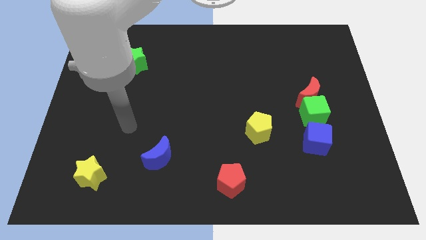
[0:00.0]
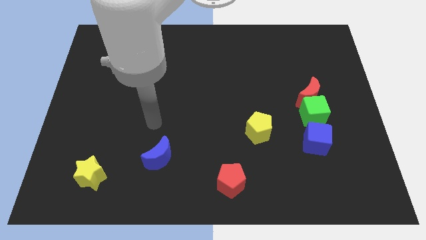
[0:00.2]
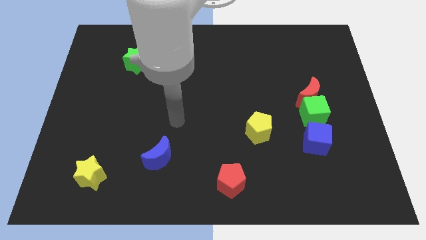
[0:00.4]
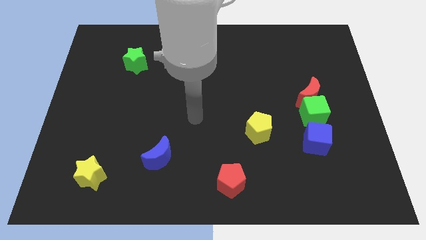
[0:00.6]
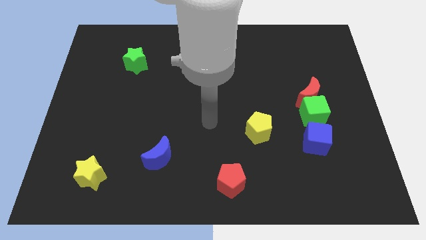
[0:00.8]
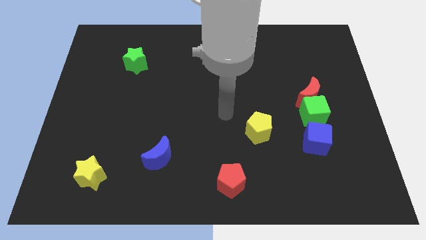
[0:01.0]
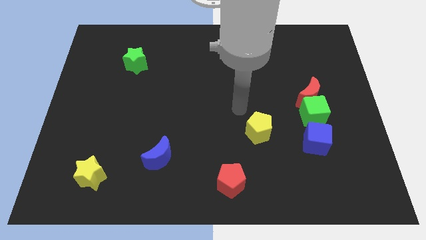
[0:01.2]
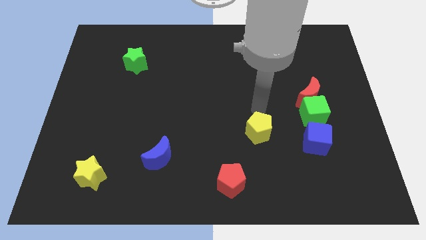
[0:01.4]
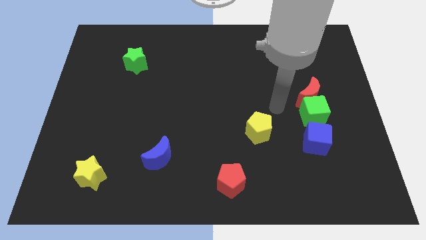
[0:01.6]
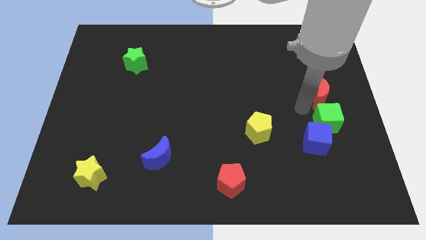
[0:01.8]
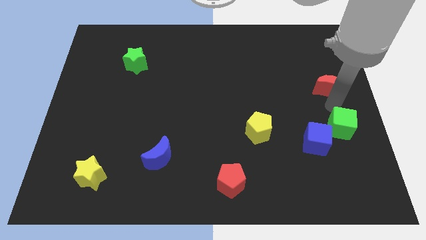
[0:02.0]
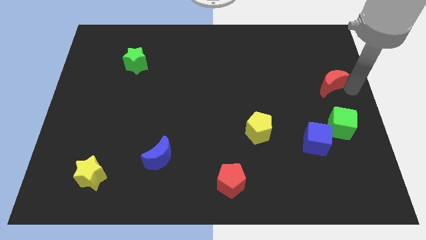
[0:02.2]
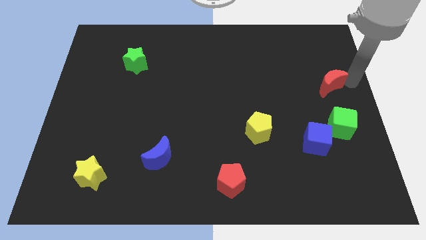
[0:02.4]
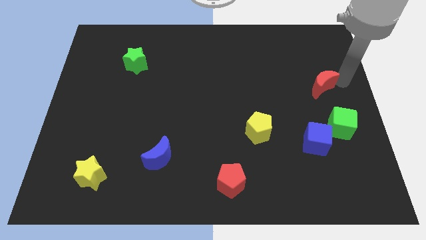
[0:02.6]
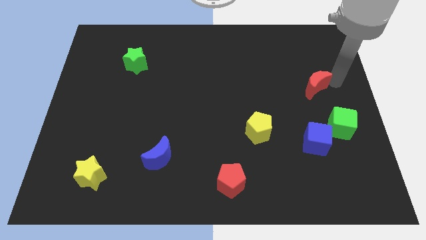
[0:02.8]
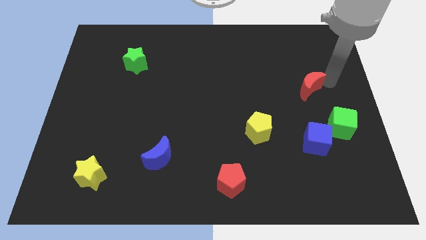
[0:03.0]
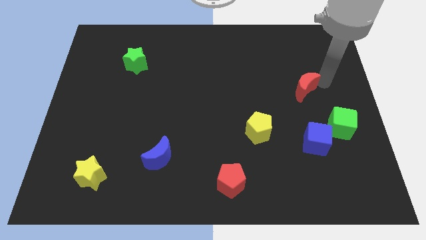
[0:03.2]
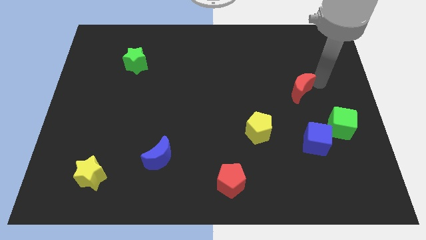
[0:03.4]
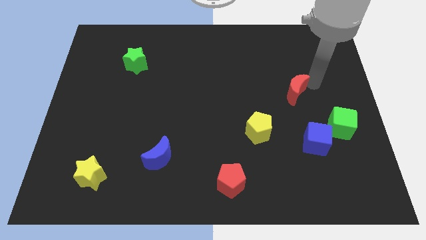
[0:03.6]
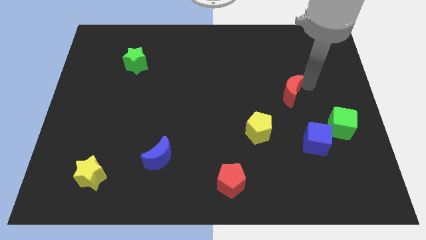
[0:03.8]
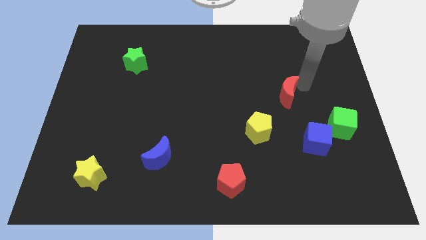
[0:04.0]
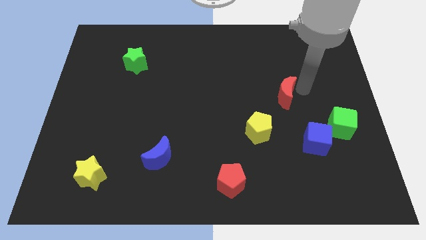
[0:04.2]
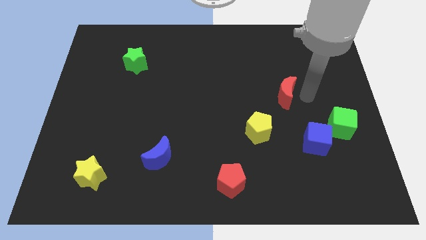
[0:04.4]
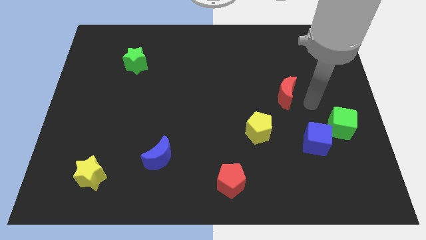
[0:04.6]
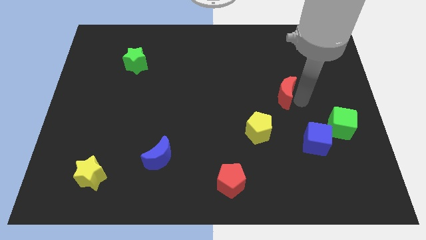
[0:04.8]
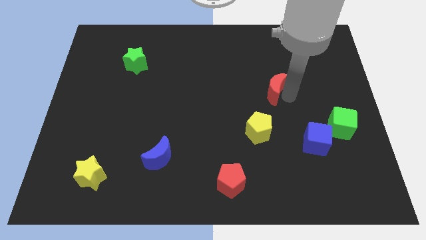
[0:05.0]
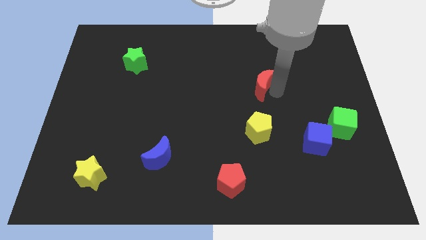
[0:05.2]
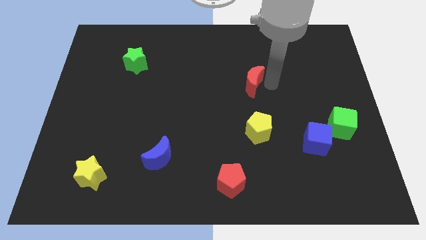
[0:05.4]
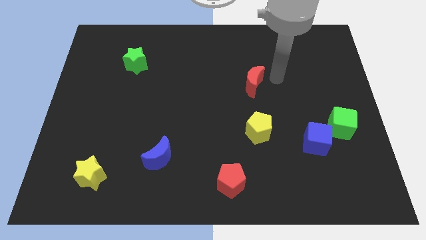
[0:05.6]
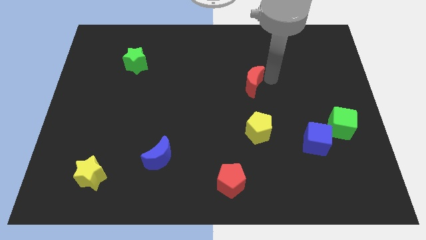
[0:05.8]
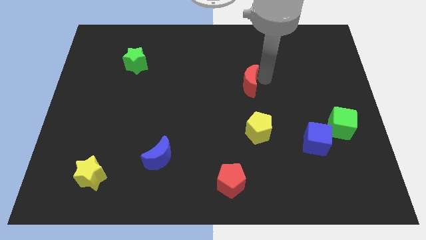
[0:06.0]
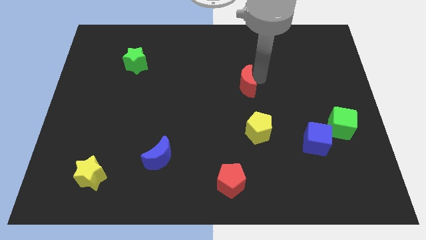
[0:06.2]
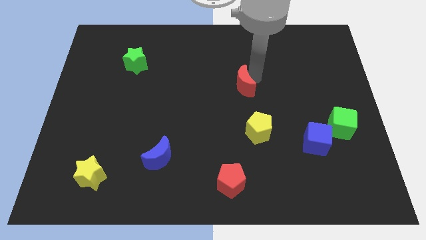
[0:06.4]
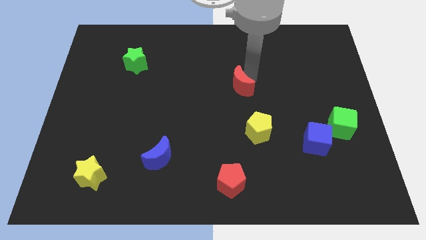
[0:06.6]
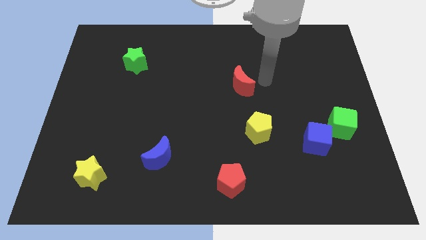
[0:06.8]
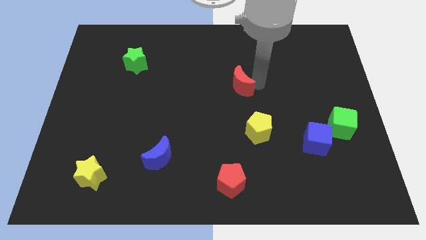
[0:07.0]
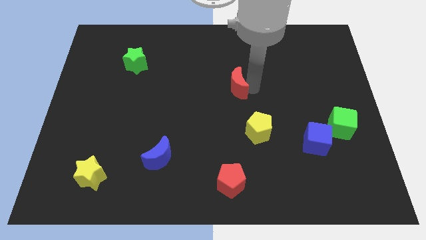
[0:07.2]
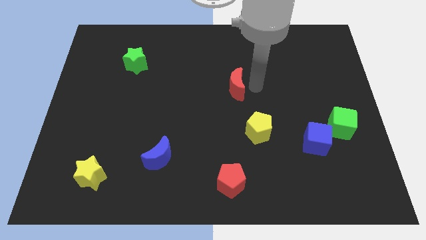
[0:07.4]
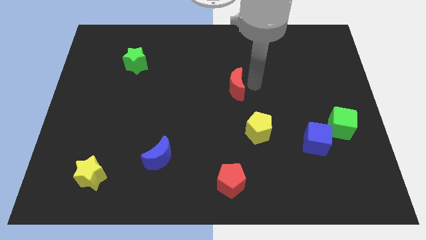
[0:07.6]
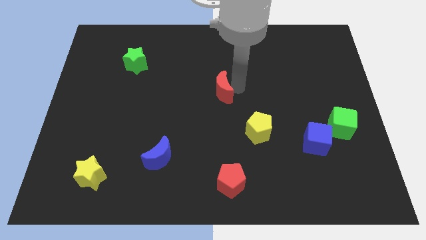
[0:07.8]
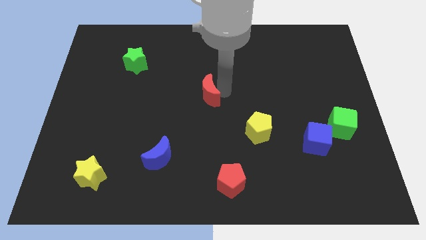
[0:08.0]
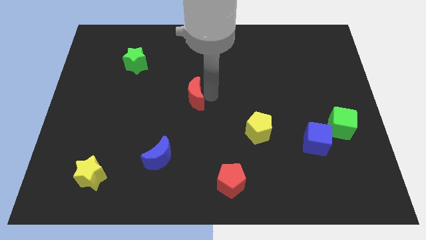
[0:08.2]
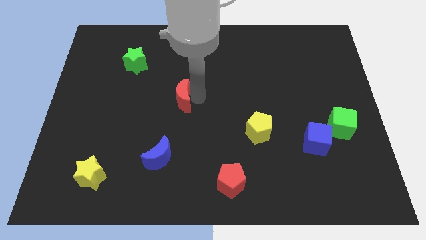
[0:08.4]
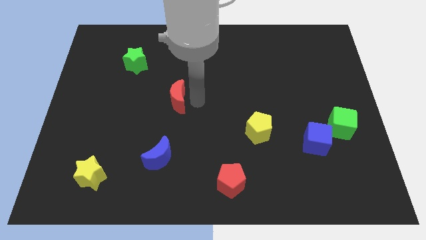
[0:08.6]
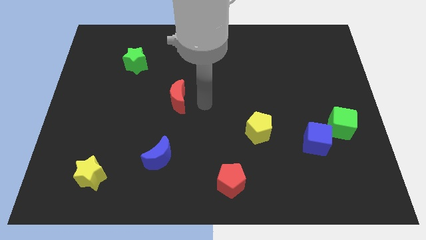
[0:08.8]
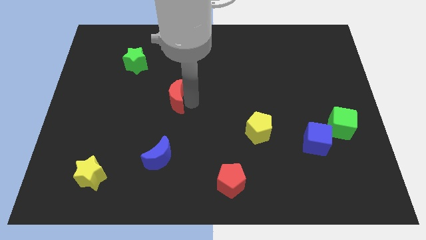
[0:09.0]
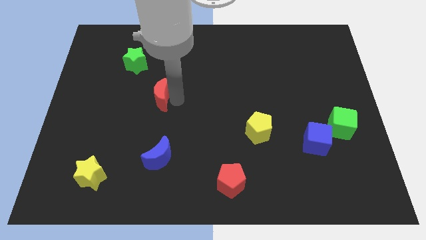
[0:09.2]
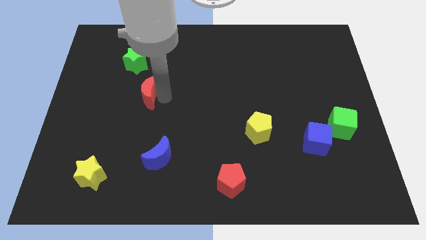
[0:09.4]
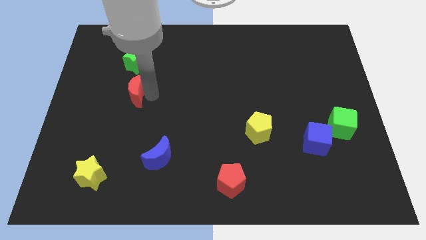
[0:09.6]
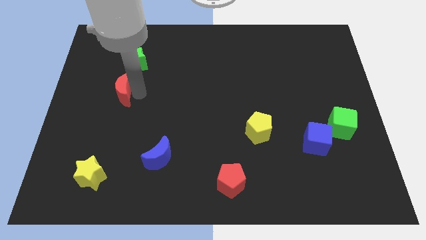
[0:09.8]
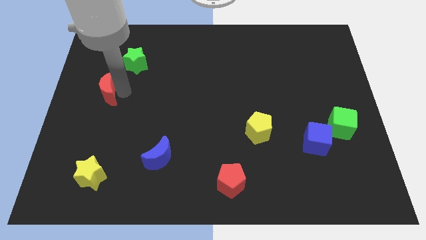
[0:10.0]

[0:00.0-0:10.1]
put the red moon to the left side of the board

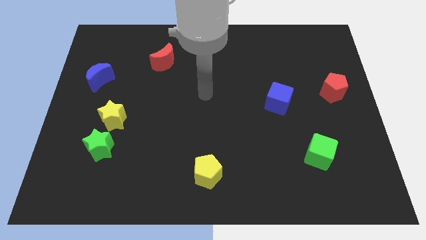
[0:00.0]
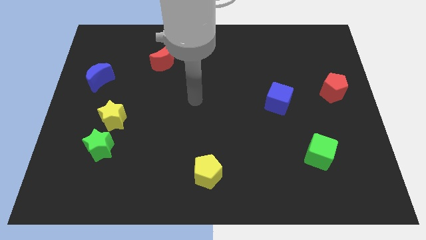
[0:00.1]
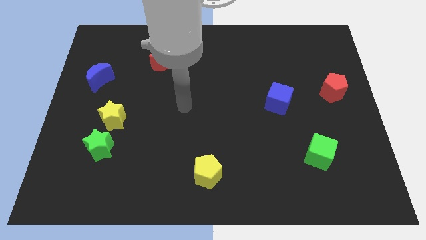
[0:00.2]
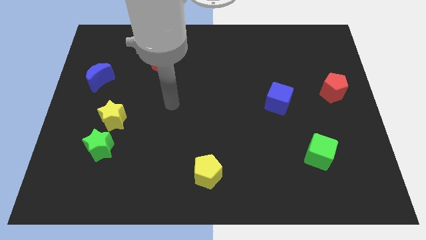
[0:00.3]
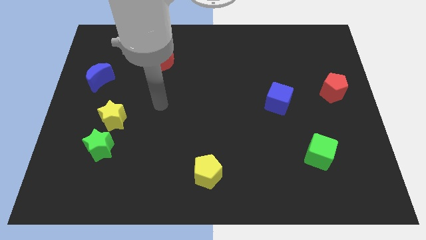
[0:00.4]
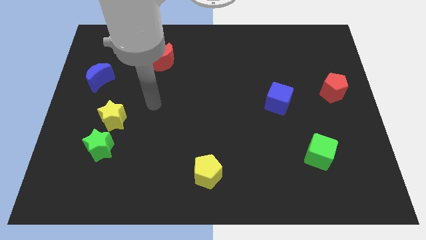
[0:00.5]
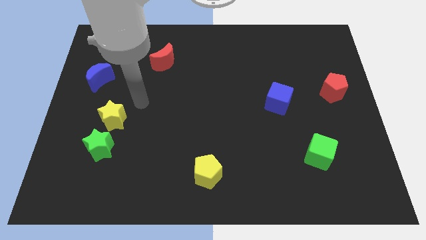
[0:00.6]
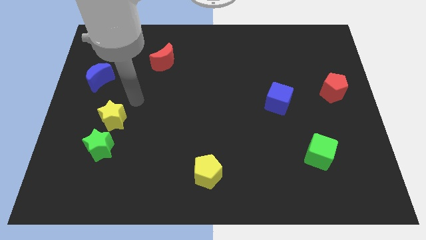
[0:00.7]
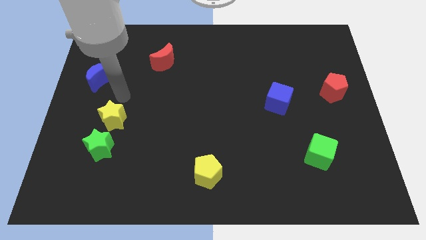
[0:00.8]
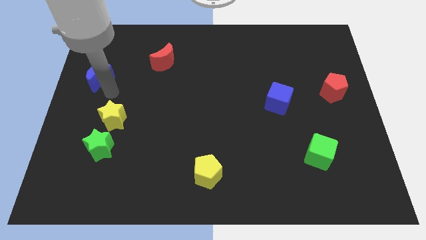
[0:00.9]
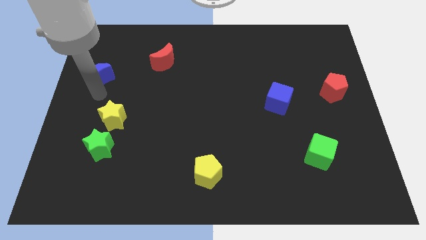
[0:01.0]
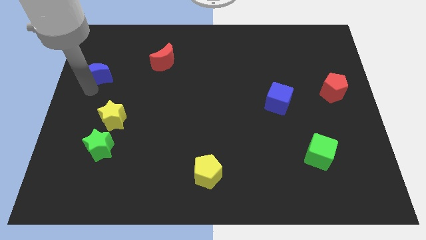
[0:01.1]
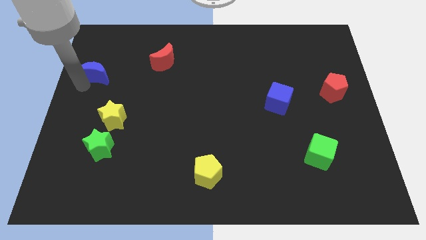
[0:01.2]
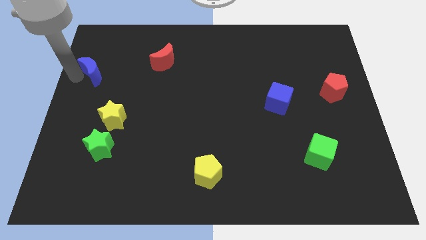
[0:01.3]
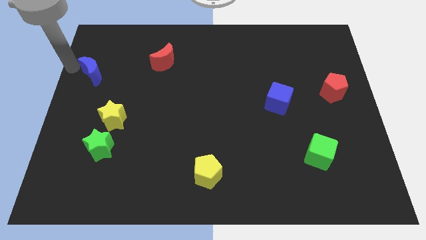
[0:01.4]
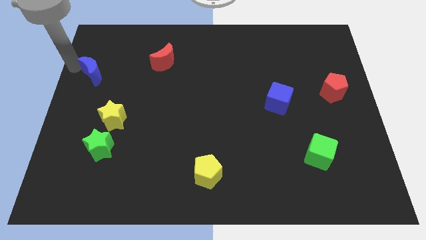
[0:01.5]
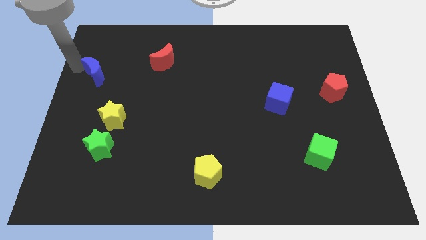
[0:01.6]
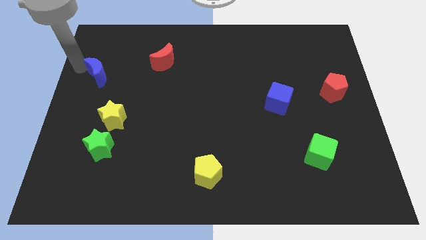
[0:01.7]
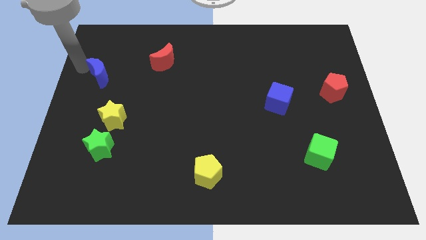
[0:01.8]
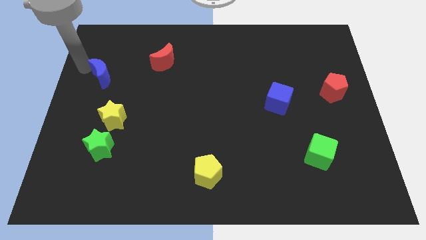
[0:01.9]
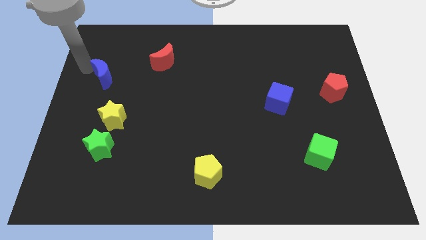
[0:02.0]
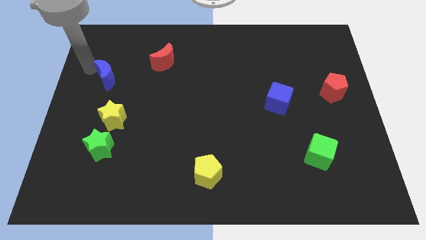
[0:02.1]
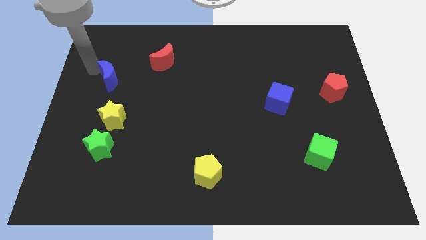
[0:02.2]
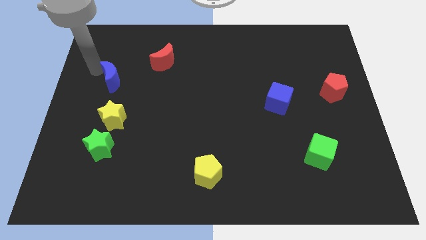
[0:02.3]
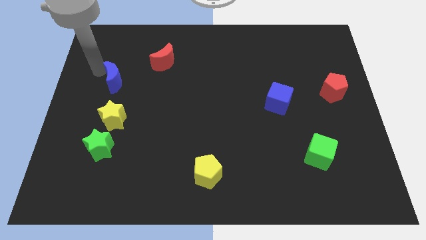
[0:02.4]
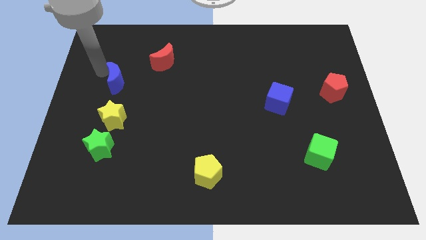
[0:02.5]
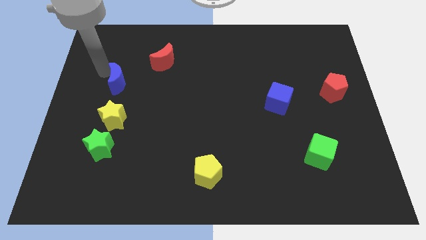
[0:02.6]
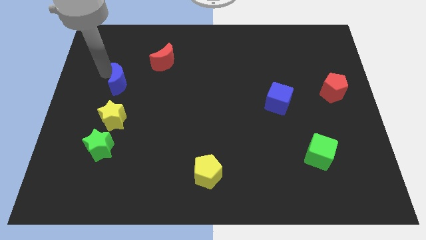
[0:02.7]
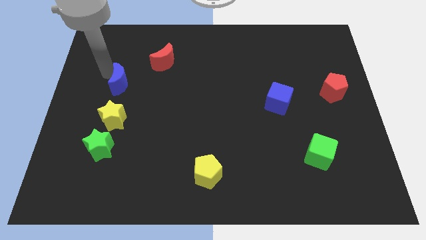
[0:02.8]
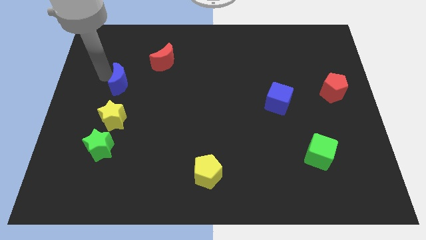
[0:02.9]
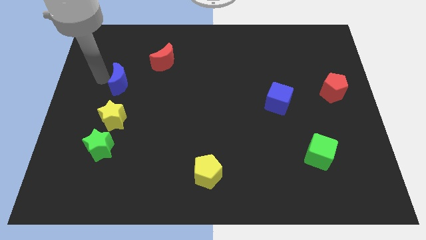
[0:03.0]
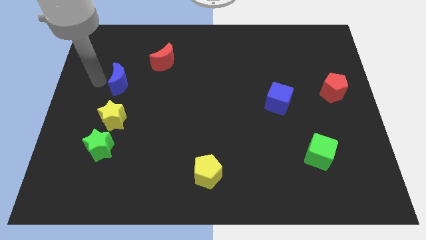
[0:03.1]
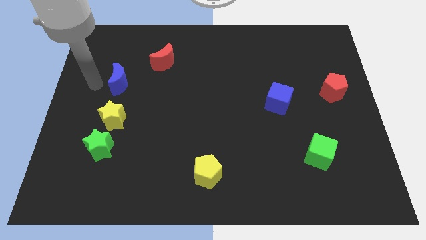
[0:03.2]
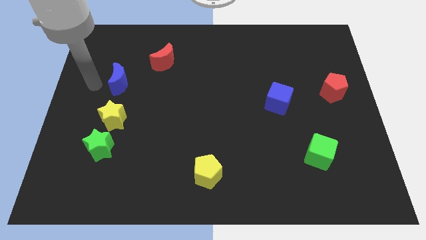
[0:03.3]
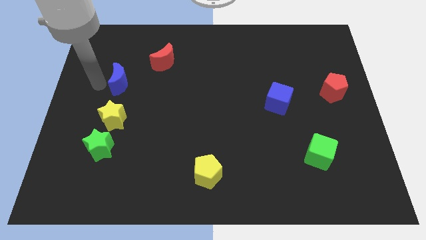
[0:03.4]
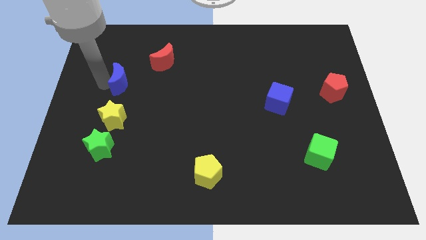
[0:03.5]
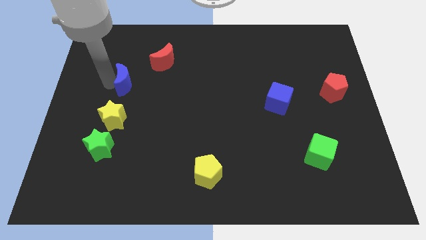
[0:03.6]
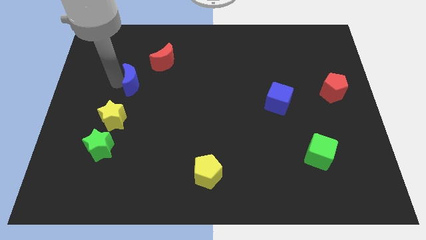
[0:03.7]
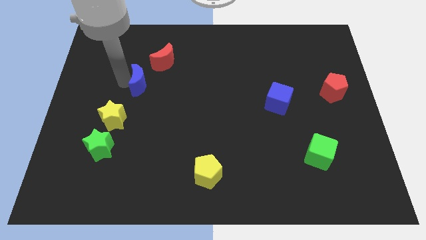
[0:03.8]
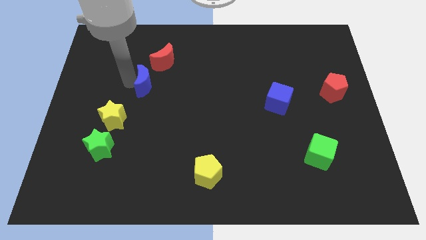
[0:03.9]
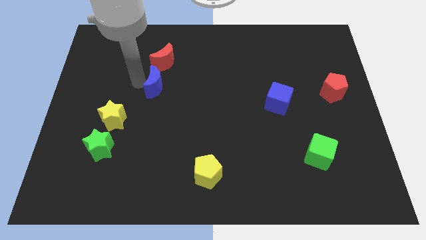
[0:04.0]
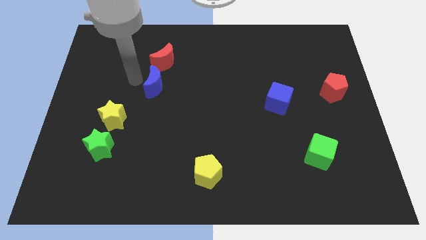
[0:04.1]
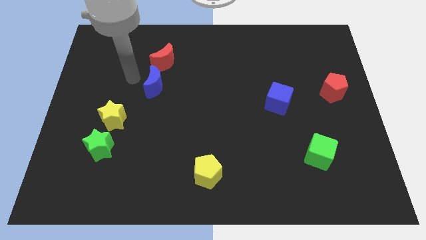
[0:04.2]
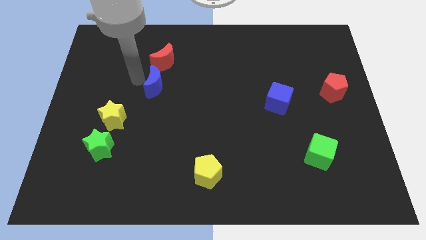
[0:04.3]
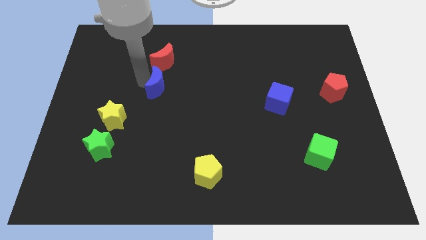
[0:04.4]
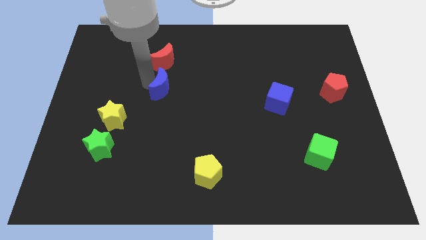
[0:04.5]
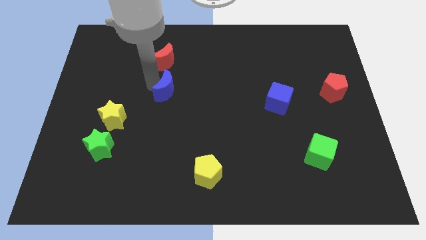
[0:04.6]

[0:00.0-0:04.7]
put the blue moon to the center of the board
